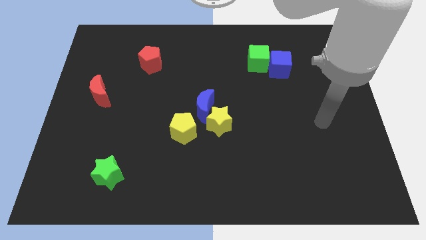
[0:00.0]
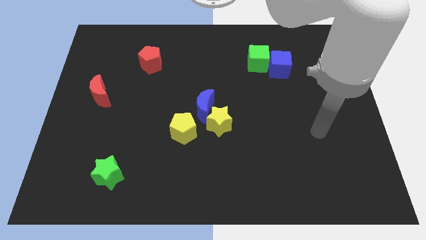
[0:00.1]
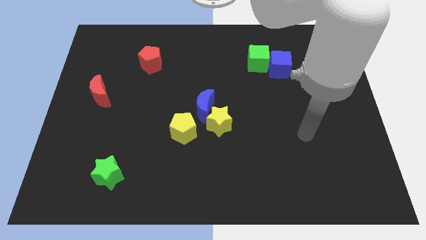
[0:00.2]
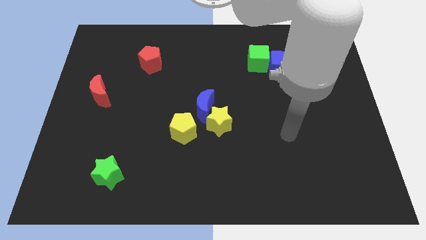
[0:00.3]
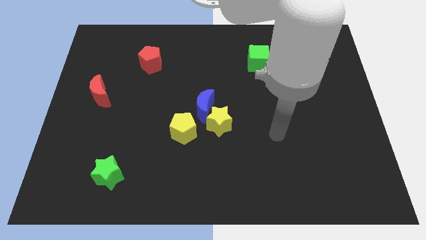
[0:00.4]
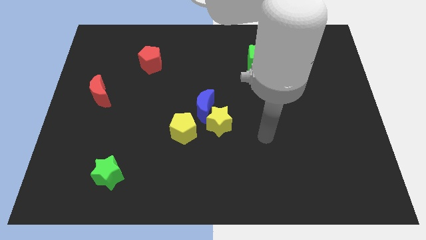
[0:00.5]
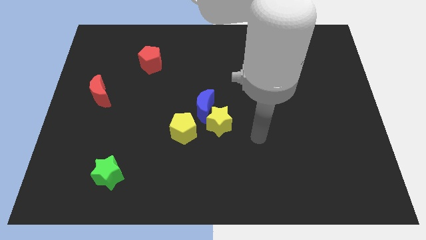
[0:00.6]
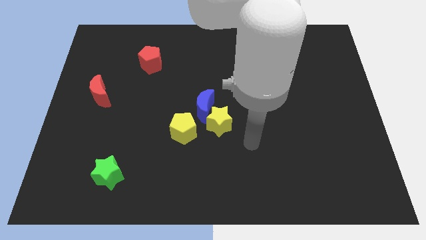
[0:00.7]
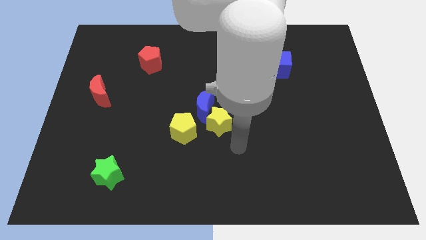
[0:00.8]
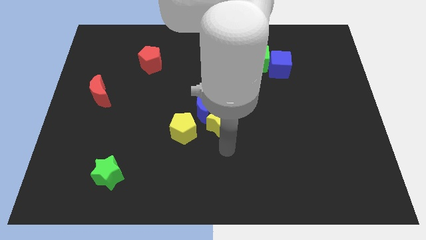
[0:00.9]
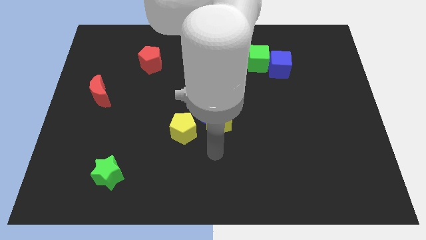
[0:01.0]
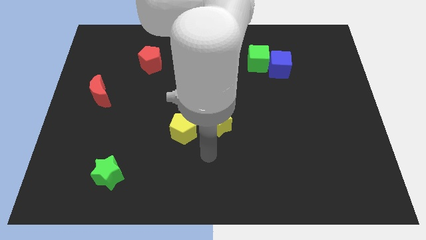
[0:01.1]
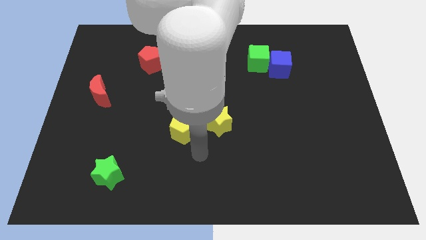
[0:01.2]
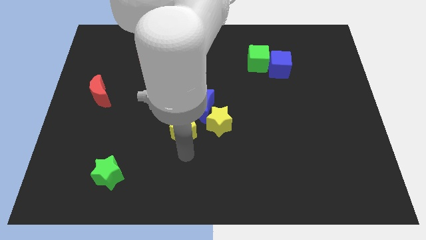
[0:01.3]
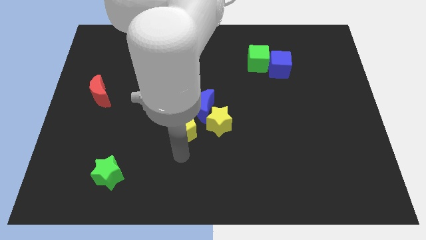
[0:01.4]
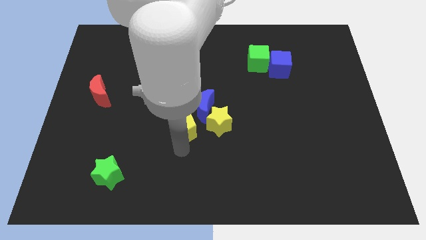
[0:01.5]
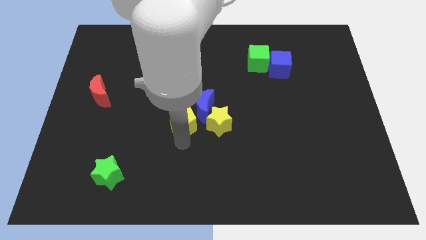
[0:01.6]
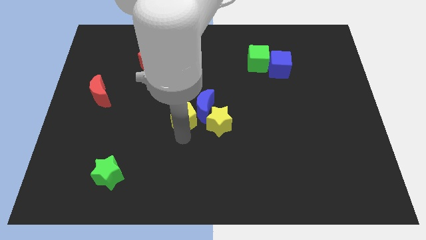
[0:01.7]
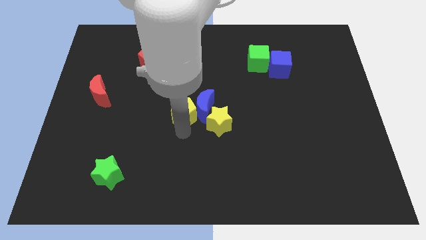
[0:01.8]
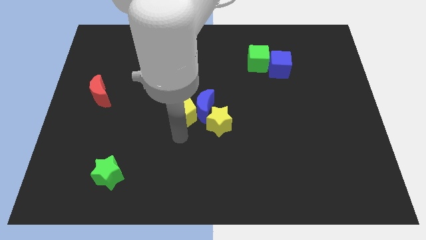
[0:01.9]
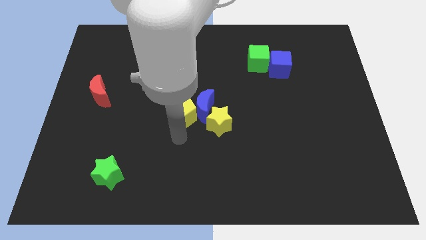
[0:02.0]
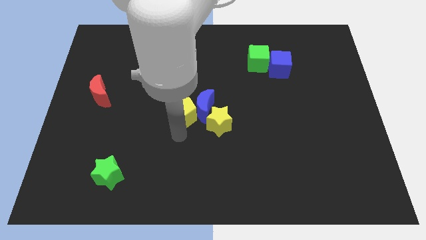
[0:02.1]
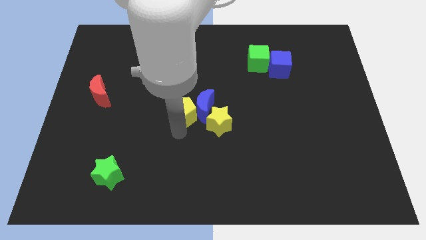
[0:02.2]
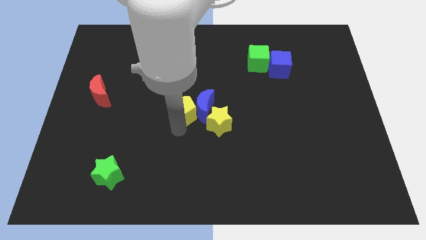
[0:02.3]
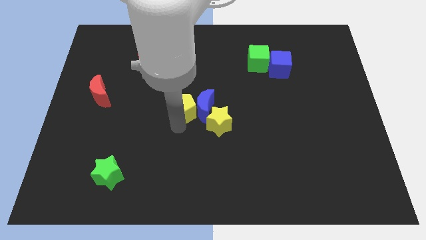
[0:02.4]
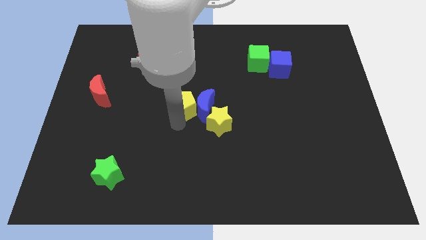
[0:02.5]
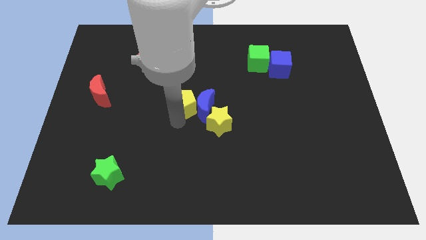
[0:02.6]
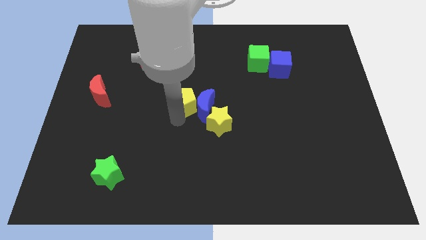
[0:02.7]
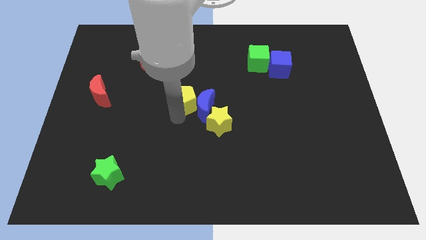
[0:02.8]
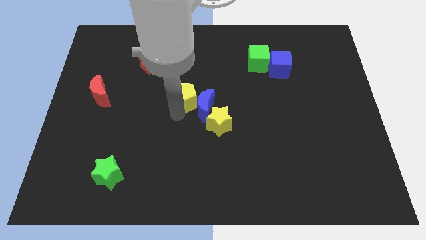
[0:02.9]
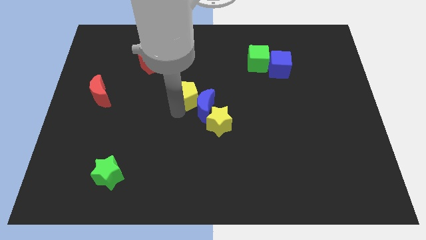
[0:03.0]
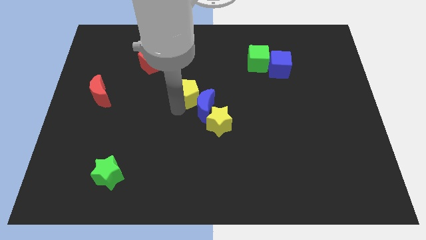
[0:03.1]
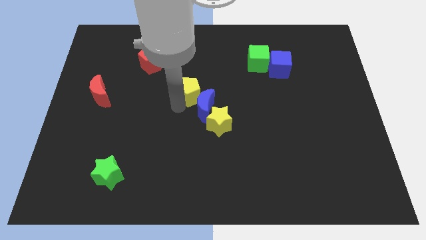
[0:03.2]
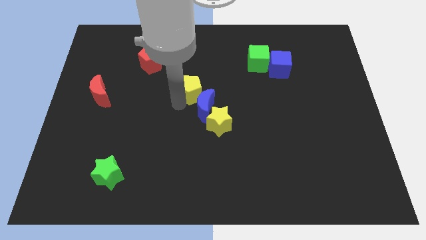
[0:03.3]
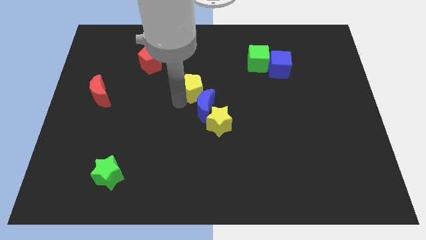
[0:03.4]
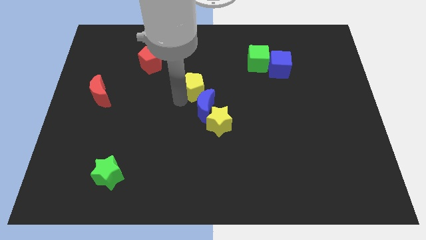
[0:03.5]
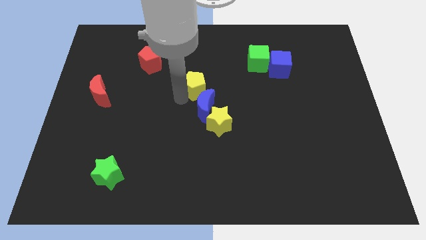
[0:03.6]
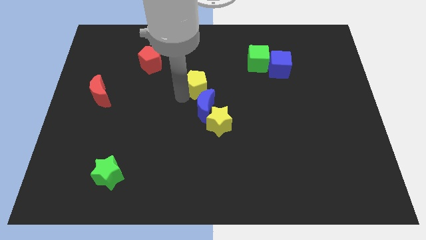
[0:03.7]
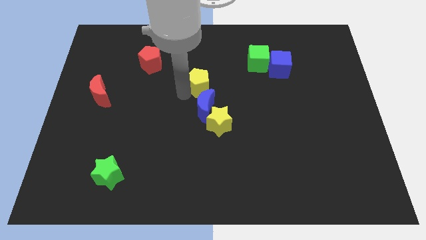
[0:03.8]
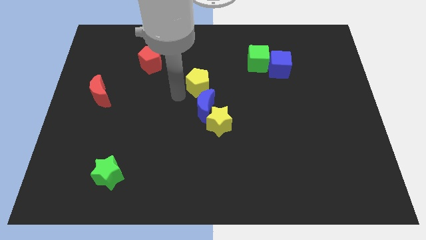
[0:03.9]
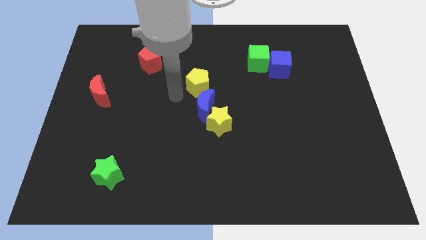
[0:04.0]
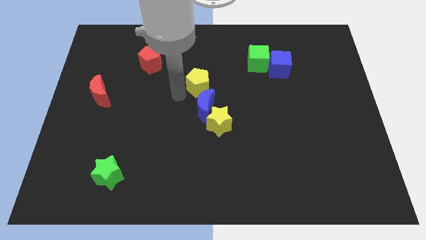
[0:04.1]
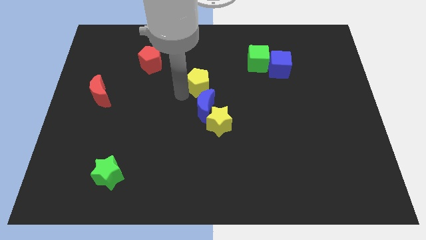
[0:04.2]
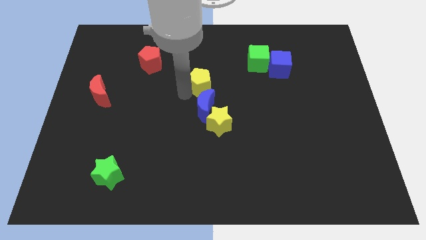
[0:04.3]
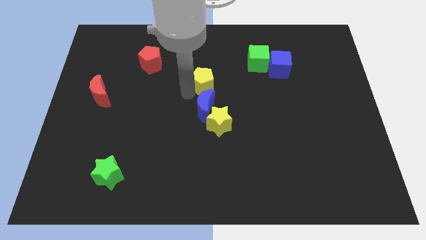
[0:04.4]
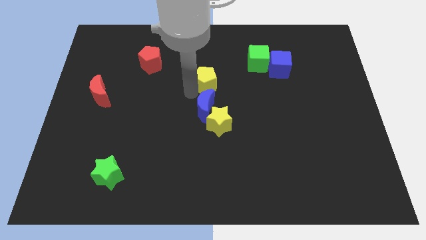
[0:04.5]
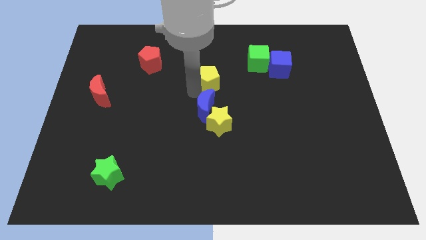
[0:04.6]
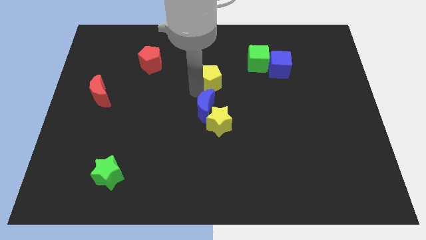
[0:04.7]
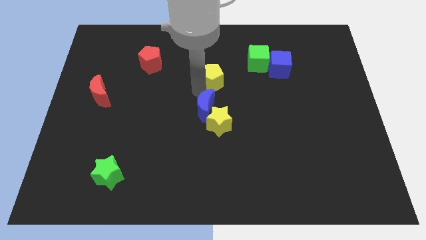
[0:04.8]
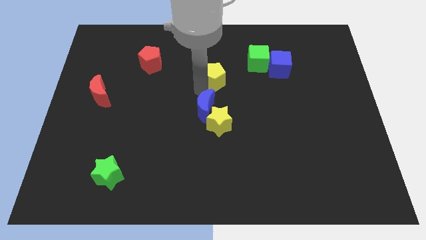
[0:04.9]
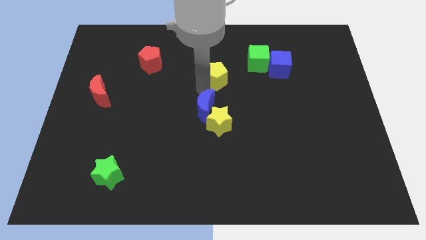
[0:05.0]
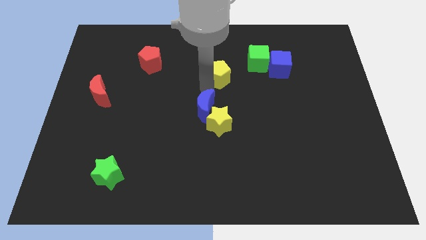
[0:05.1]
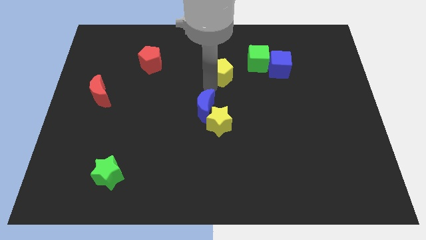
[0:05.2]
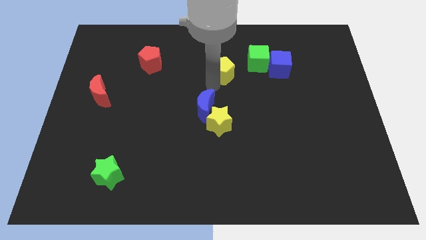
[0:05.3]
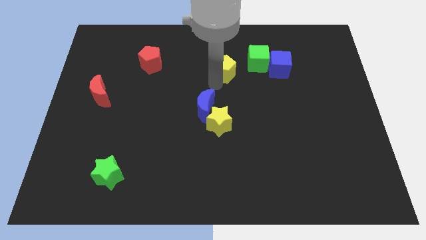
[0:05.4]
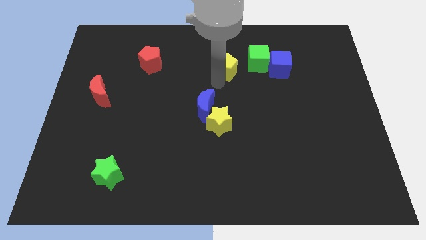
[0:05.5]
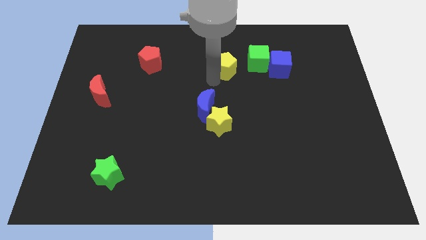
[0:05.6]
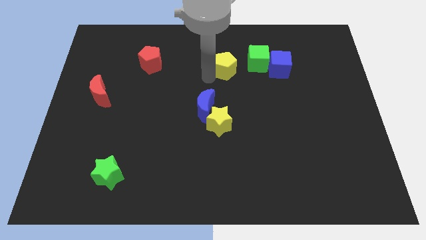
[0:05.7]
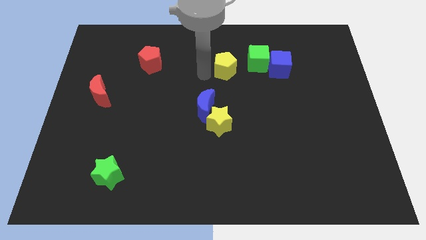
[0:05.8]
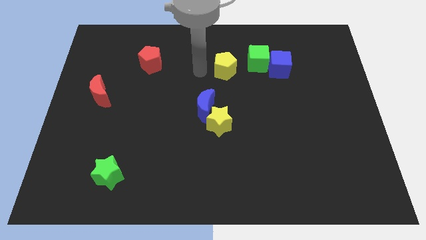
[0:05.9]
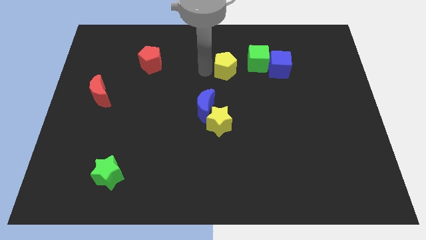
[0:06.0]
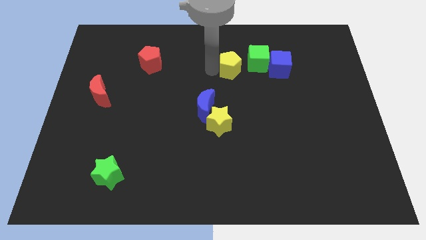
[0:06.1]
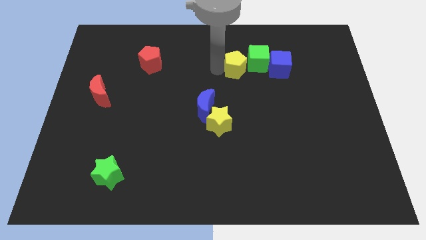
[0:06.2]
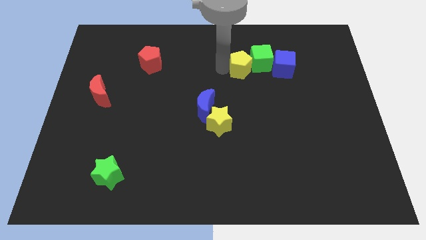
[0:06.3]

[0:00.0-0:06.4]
slide the yellow pentagon close to the green cube

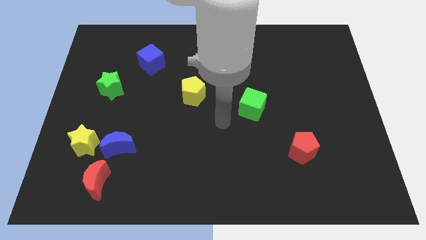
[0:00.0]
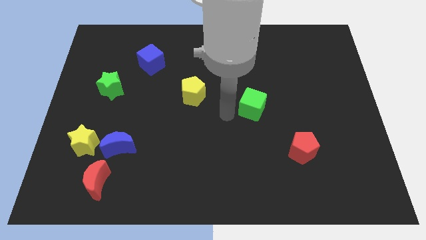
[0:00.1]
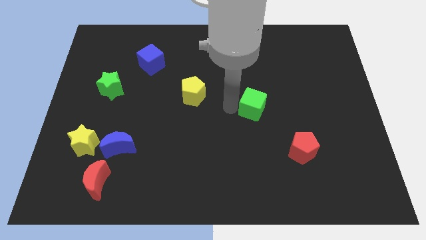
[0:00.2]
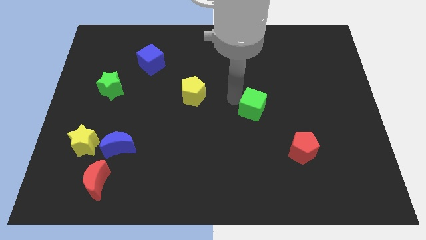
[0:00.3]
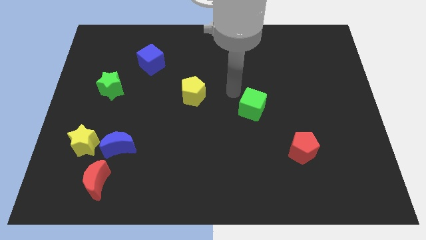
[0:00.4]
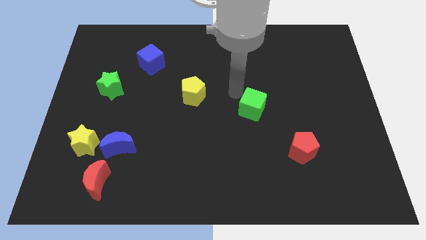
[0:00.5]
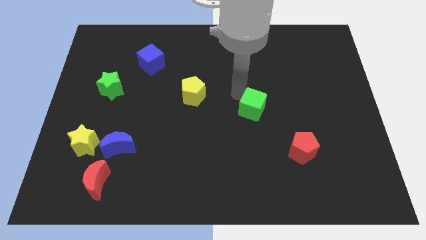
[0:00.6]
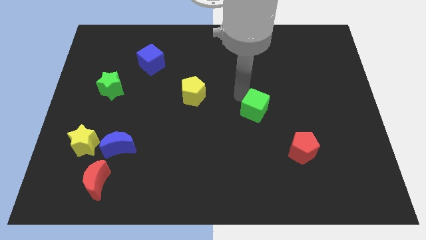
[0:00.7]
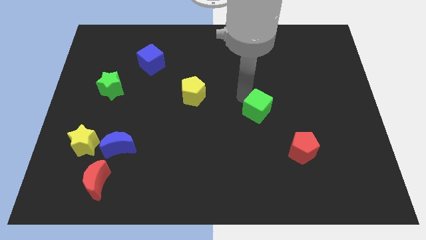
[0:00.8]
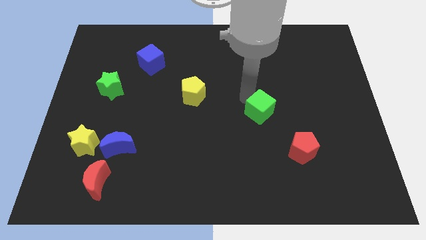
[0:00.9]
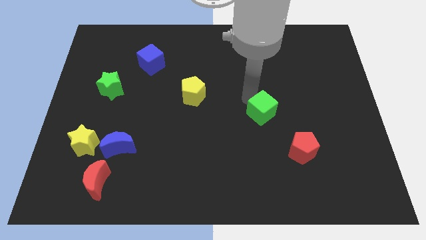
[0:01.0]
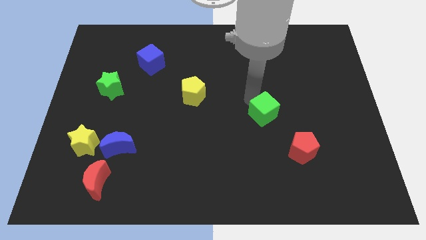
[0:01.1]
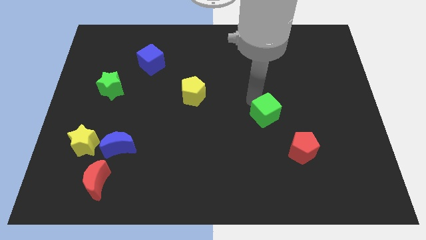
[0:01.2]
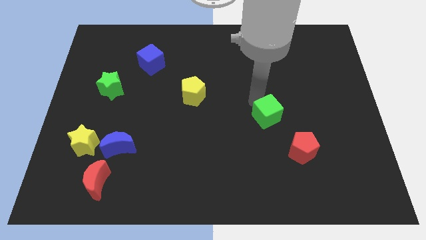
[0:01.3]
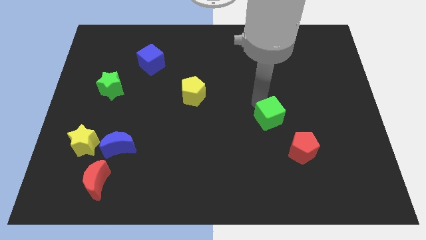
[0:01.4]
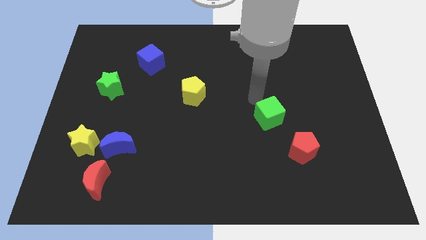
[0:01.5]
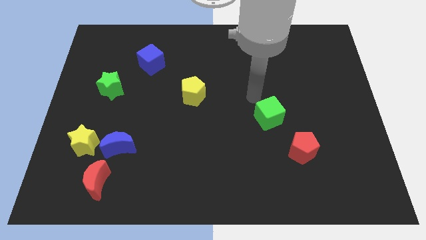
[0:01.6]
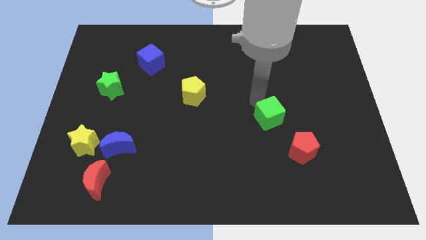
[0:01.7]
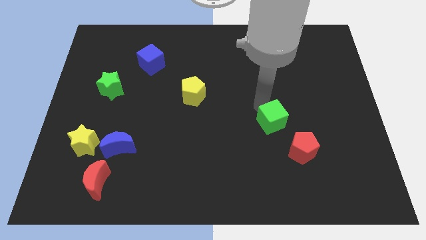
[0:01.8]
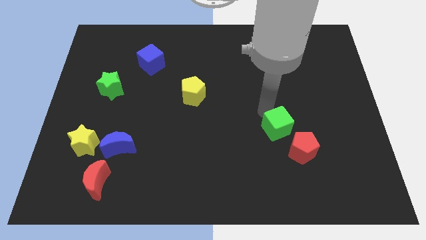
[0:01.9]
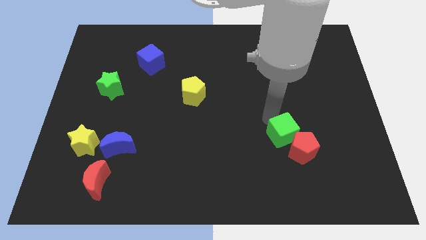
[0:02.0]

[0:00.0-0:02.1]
push the green cube to the red pentagon
